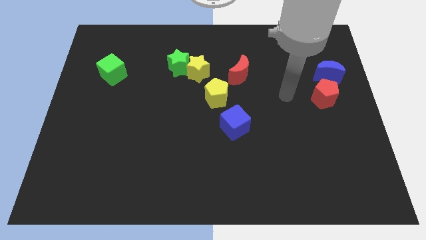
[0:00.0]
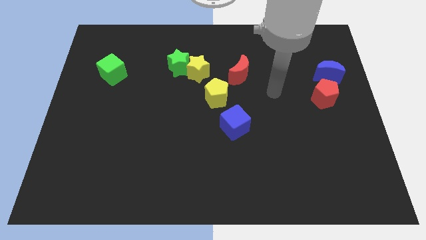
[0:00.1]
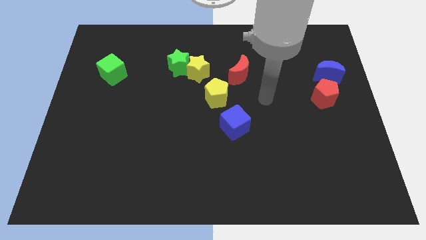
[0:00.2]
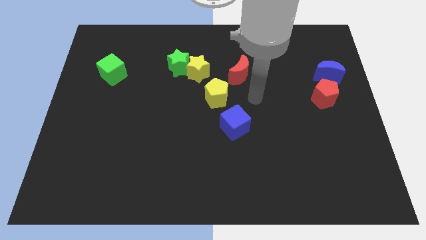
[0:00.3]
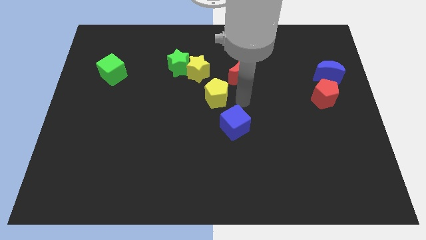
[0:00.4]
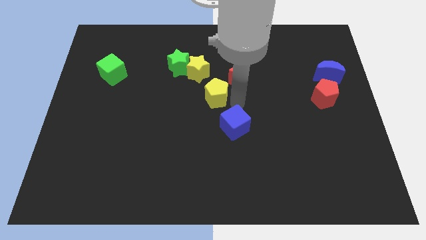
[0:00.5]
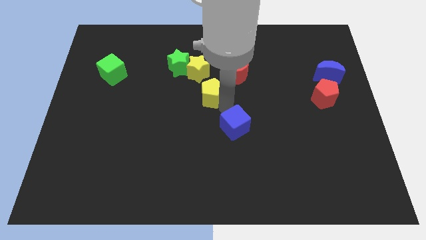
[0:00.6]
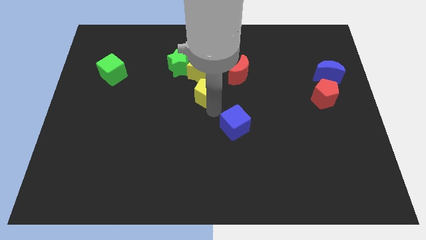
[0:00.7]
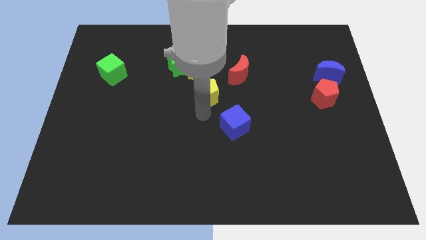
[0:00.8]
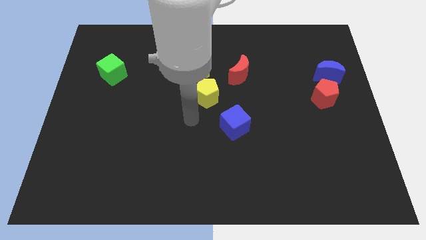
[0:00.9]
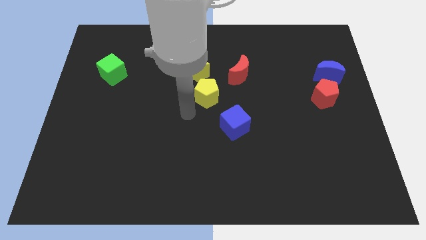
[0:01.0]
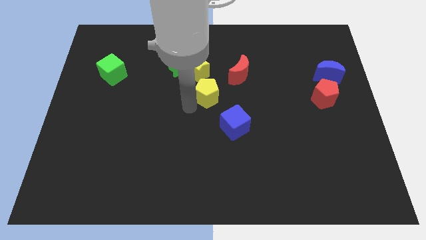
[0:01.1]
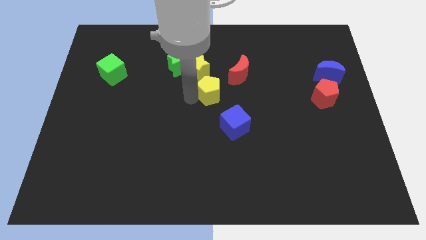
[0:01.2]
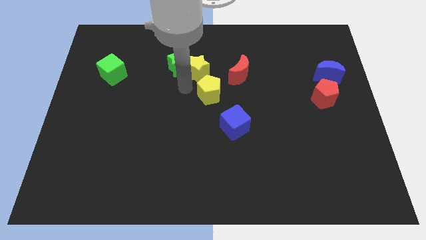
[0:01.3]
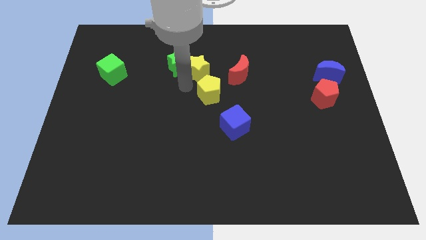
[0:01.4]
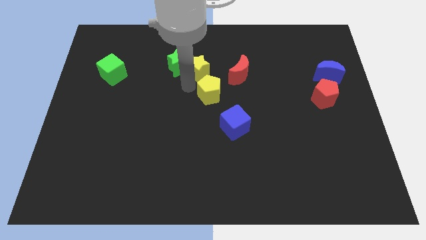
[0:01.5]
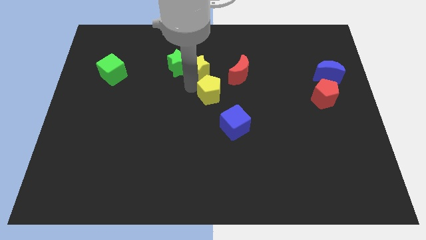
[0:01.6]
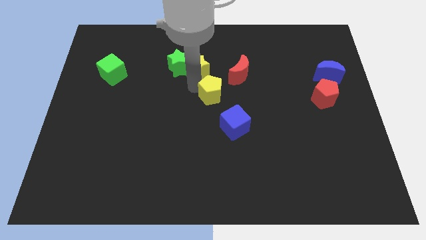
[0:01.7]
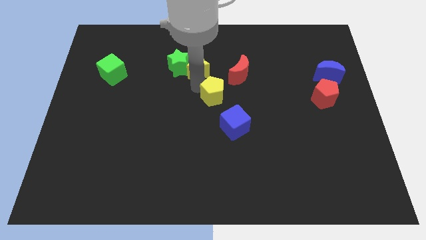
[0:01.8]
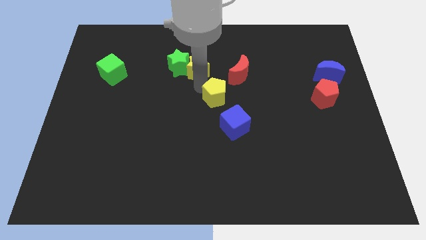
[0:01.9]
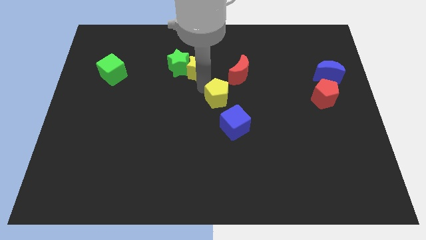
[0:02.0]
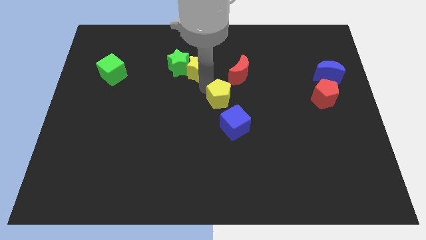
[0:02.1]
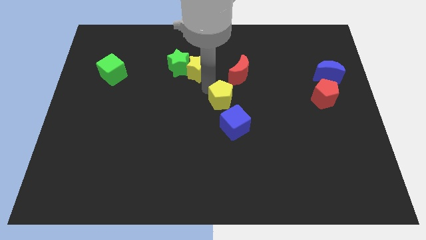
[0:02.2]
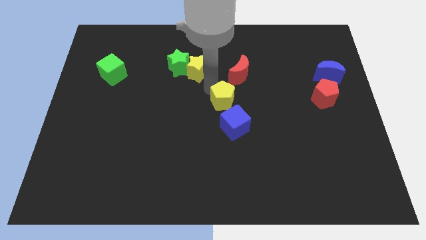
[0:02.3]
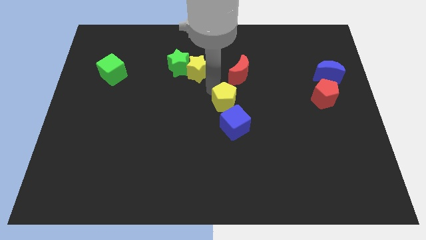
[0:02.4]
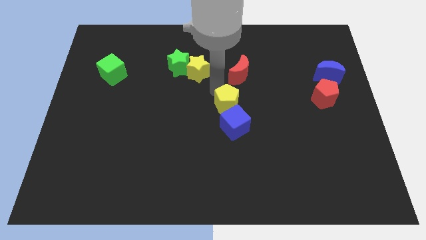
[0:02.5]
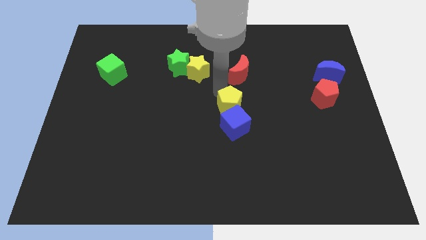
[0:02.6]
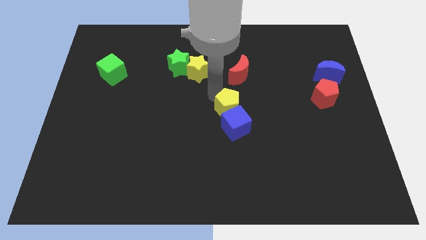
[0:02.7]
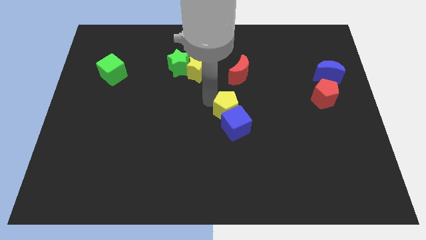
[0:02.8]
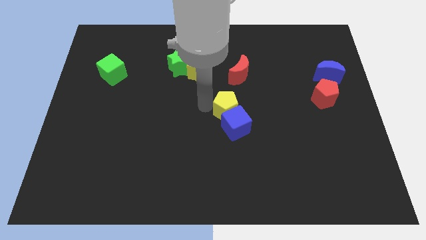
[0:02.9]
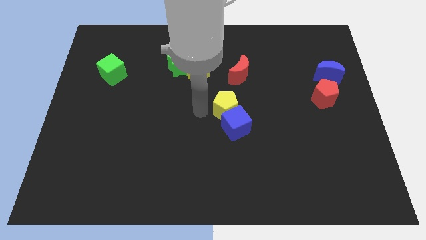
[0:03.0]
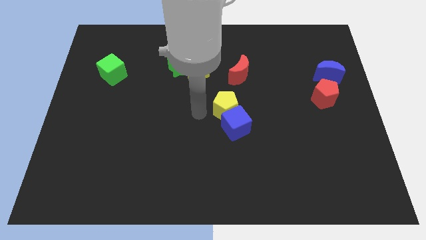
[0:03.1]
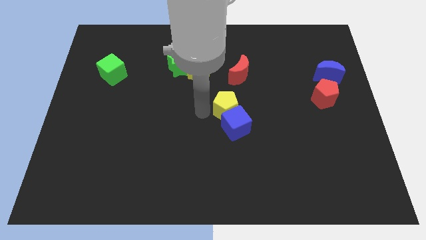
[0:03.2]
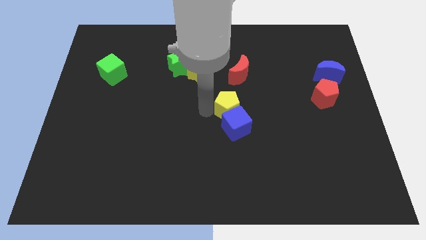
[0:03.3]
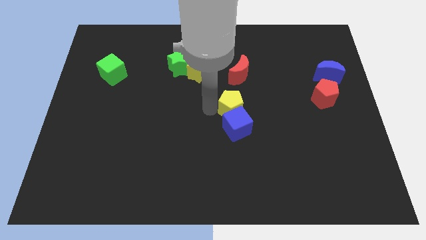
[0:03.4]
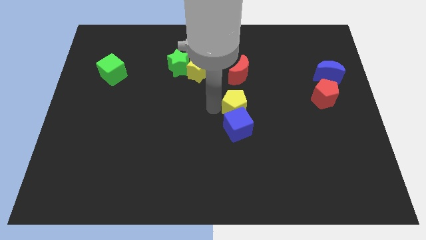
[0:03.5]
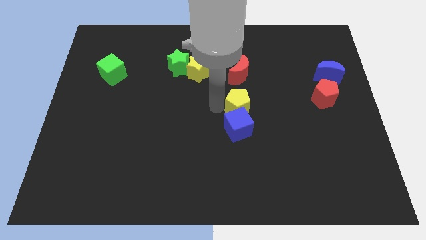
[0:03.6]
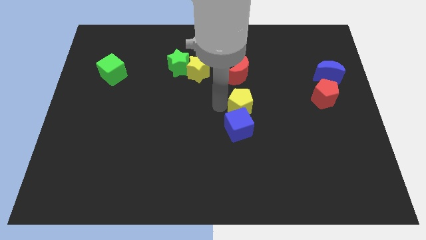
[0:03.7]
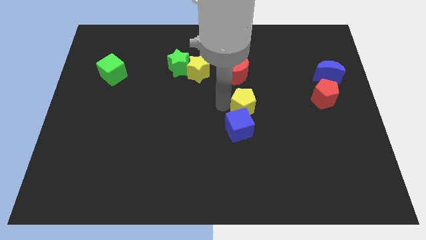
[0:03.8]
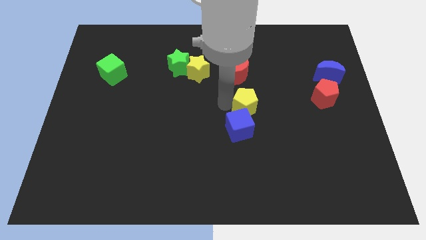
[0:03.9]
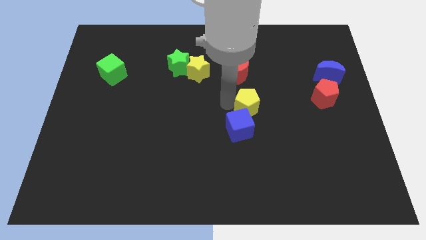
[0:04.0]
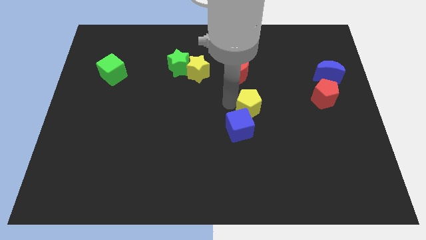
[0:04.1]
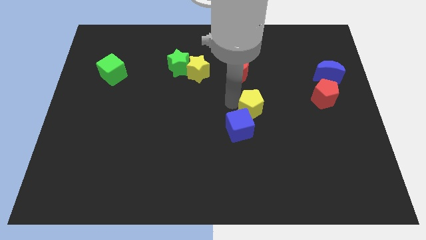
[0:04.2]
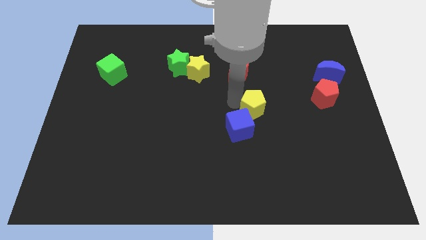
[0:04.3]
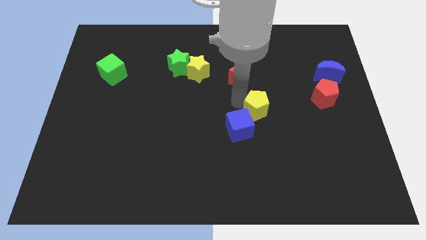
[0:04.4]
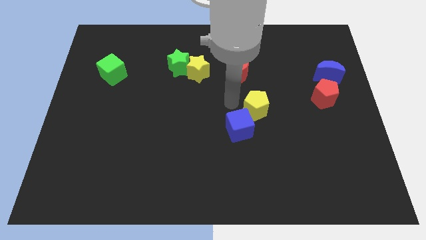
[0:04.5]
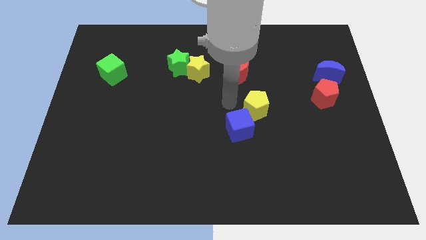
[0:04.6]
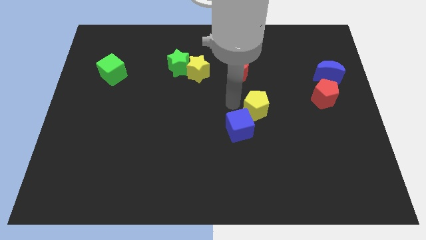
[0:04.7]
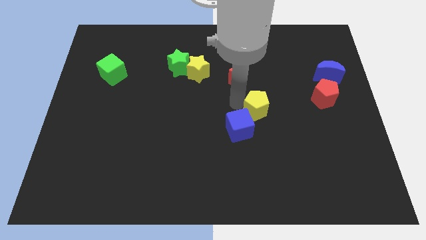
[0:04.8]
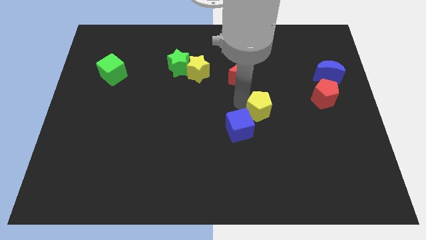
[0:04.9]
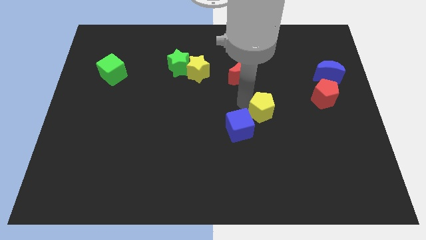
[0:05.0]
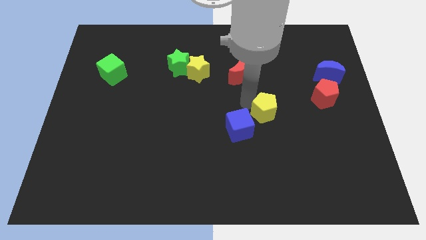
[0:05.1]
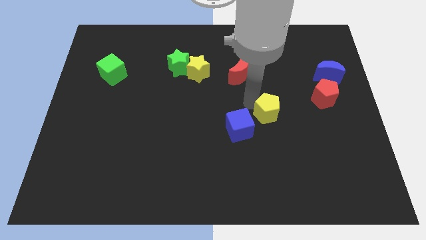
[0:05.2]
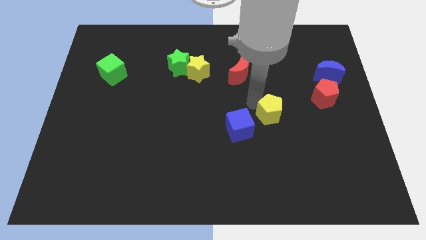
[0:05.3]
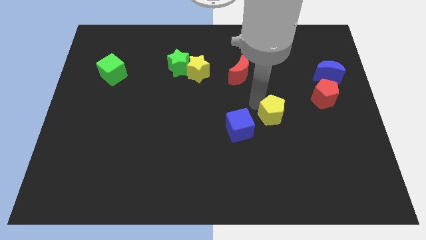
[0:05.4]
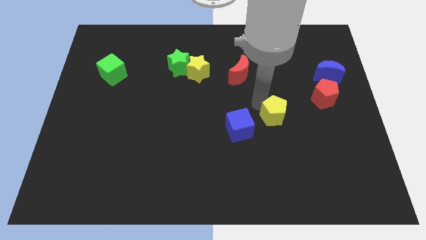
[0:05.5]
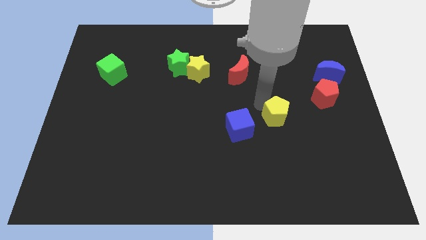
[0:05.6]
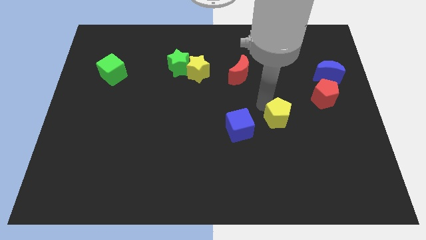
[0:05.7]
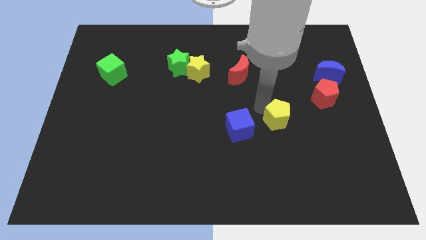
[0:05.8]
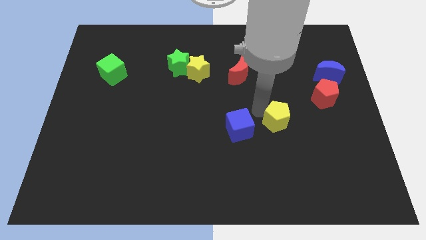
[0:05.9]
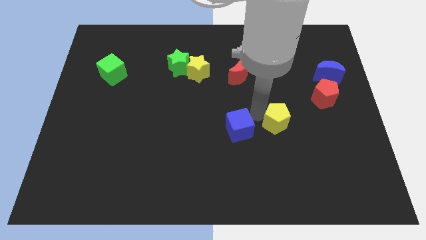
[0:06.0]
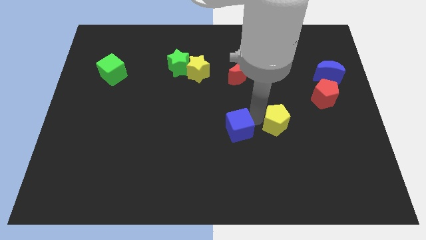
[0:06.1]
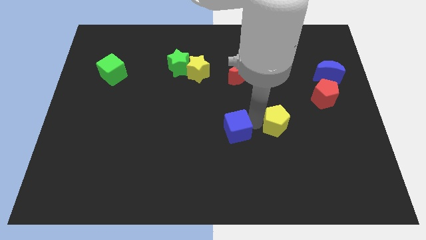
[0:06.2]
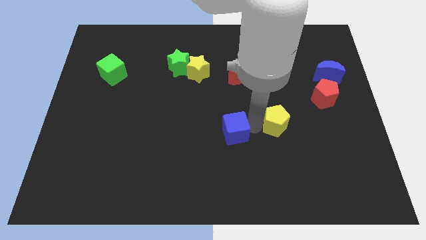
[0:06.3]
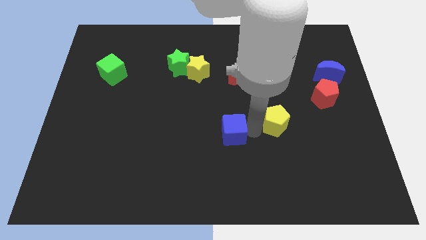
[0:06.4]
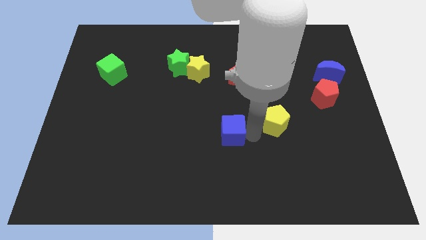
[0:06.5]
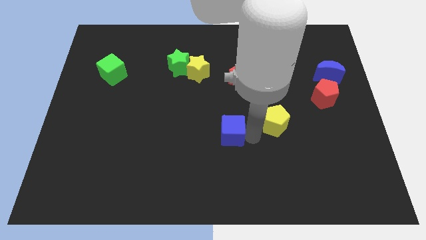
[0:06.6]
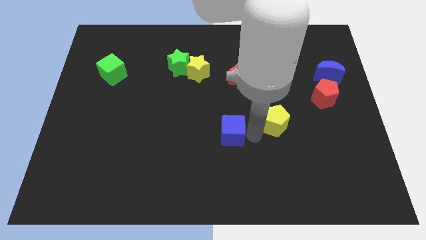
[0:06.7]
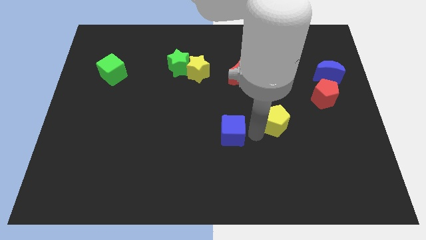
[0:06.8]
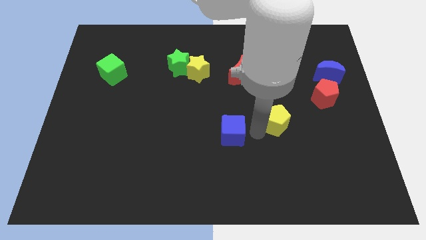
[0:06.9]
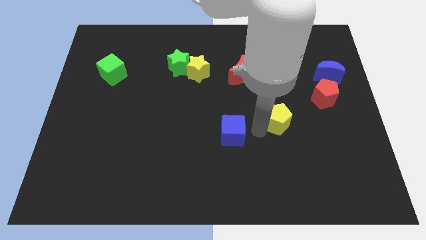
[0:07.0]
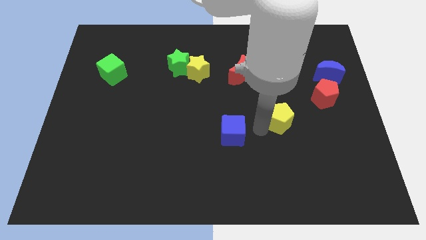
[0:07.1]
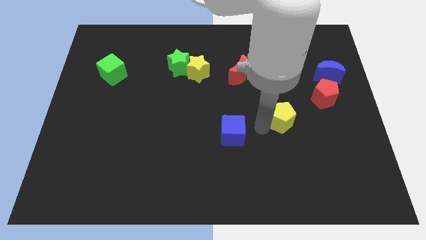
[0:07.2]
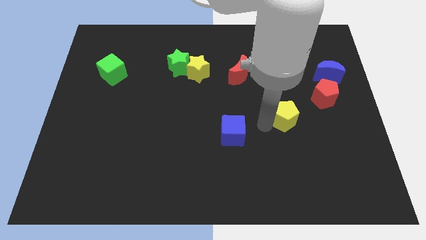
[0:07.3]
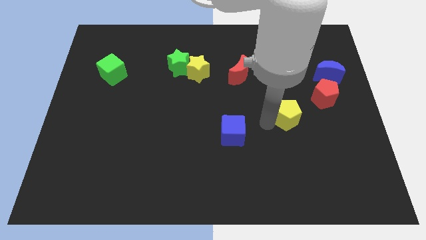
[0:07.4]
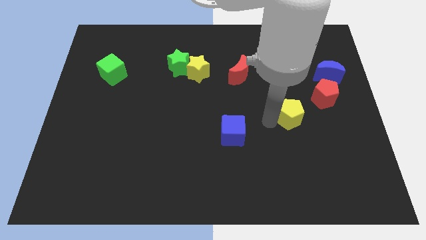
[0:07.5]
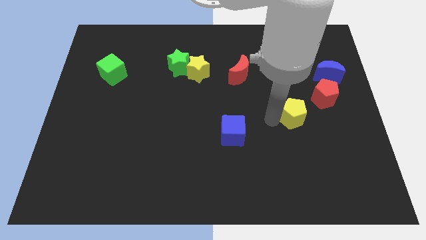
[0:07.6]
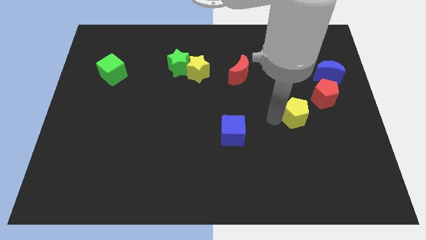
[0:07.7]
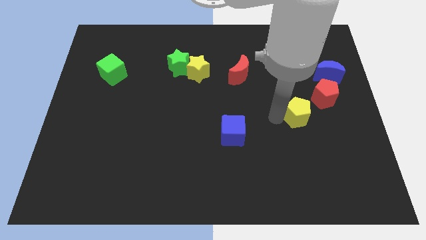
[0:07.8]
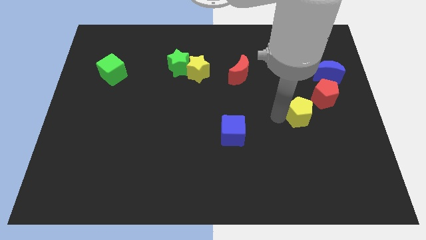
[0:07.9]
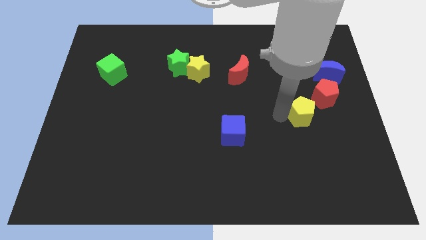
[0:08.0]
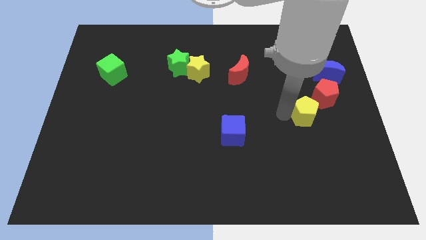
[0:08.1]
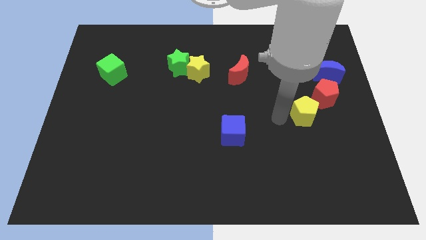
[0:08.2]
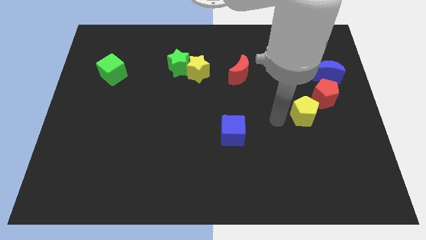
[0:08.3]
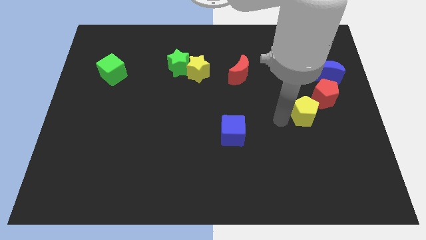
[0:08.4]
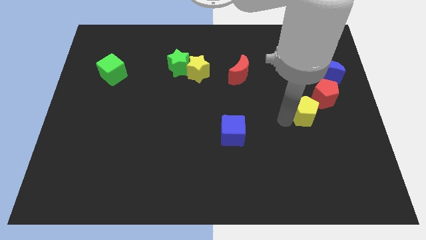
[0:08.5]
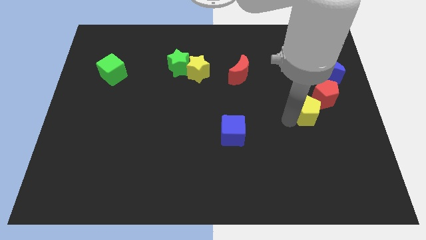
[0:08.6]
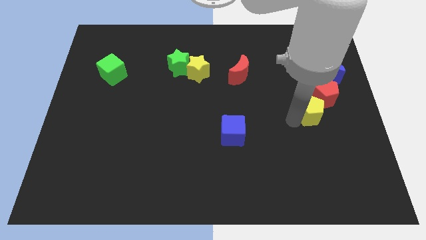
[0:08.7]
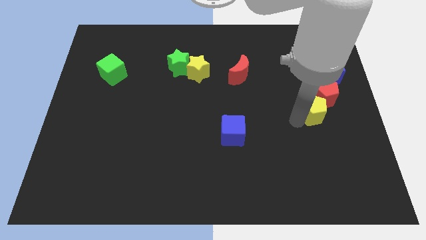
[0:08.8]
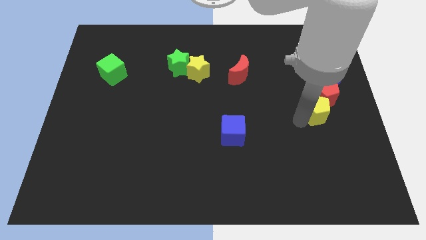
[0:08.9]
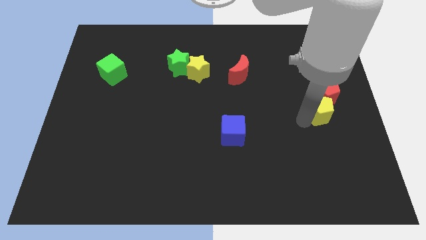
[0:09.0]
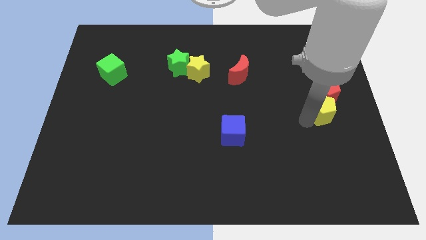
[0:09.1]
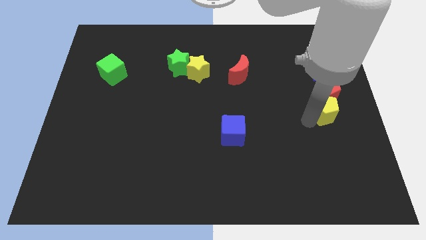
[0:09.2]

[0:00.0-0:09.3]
slide the yellow pentagon to the right side of the board
